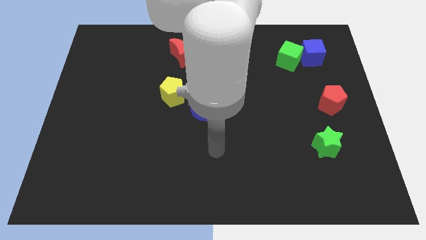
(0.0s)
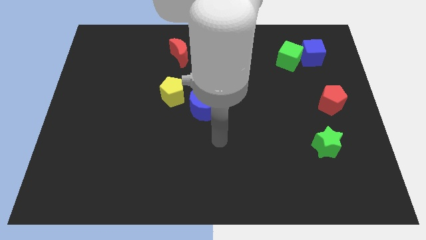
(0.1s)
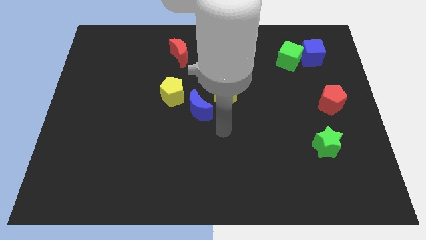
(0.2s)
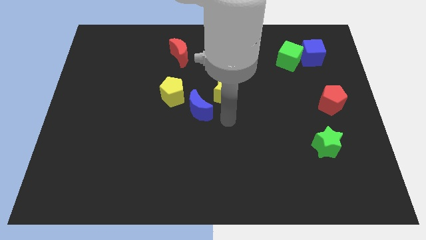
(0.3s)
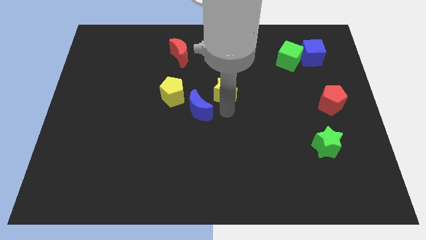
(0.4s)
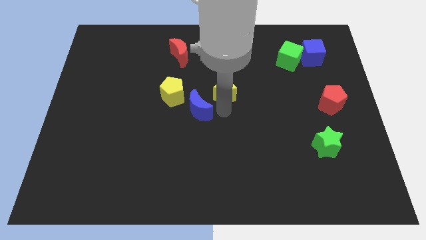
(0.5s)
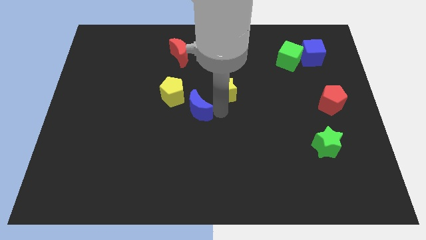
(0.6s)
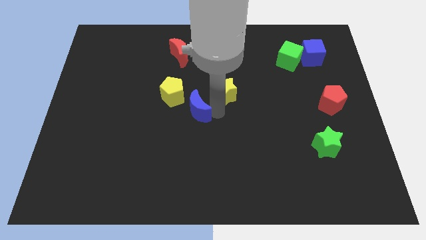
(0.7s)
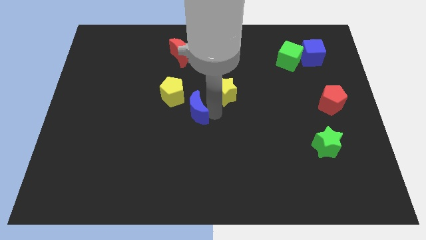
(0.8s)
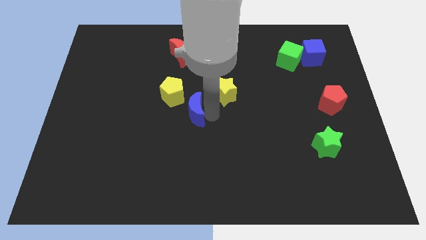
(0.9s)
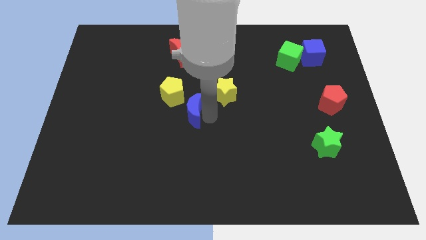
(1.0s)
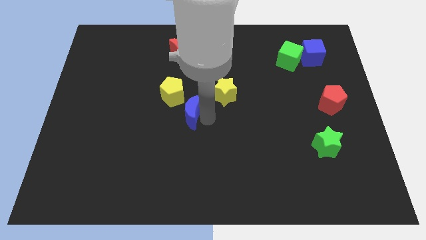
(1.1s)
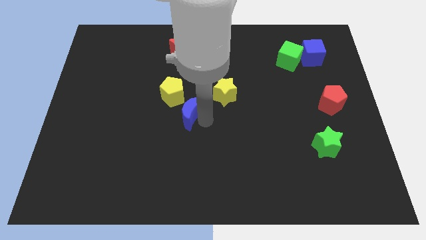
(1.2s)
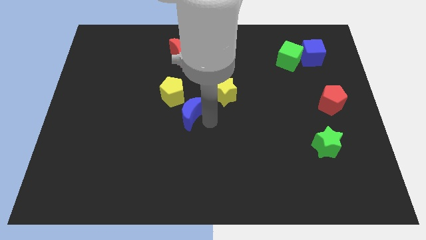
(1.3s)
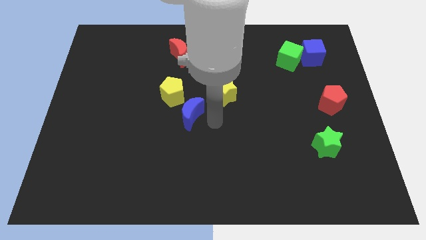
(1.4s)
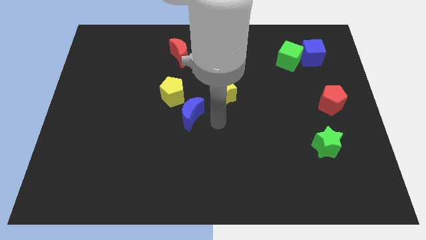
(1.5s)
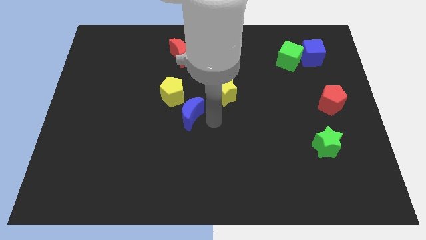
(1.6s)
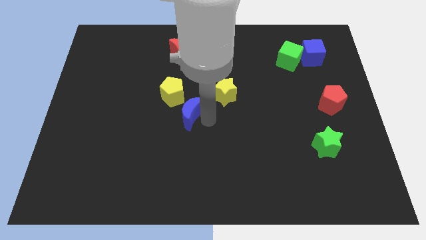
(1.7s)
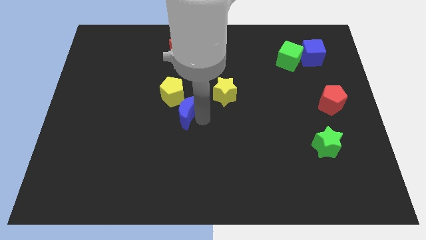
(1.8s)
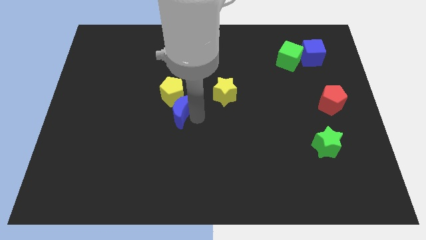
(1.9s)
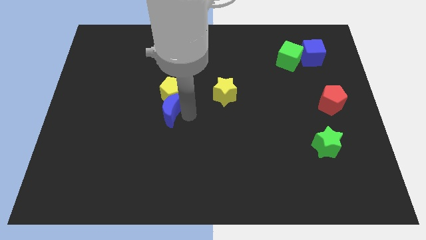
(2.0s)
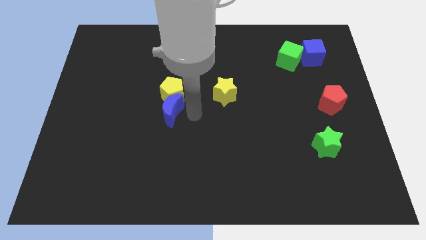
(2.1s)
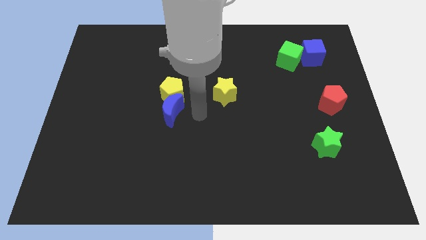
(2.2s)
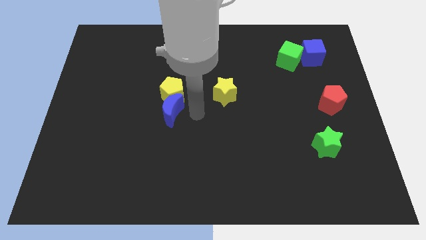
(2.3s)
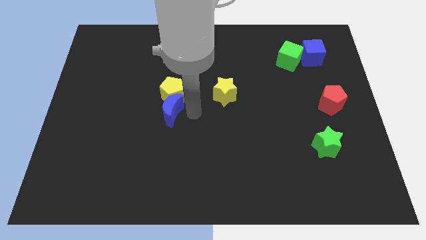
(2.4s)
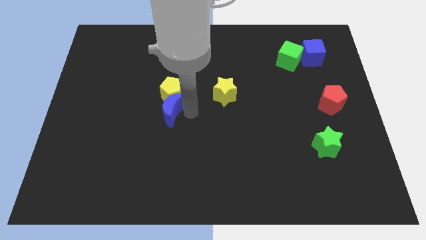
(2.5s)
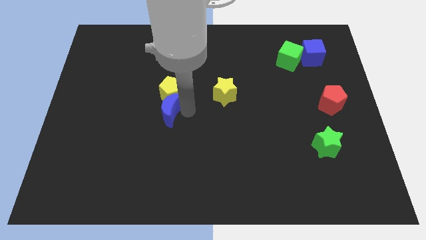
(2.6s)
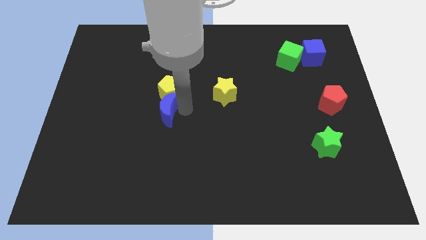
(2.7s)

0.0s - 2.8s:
slide the blue moon a bit left

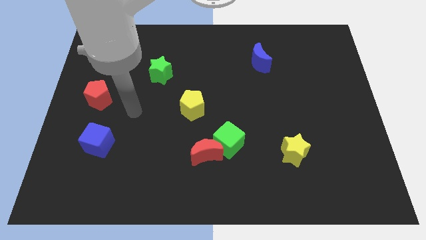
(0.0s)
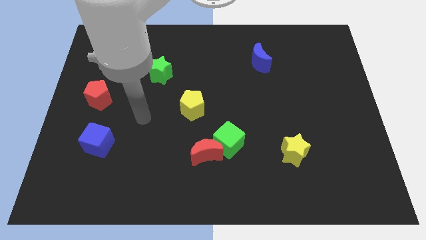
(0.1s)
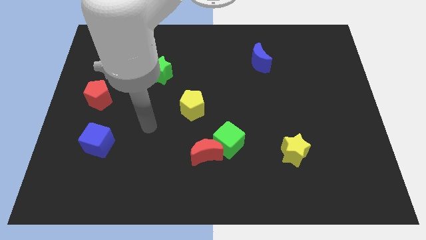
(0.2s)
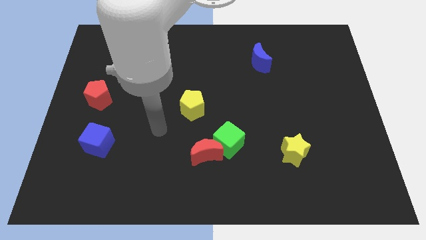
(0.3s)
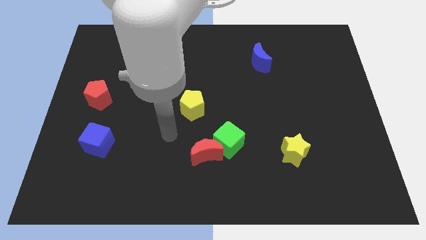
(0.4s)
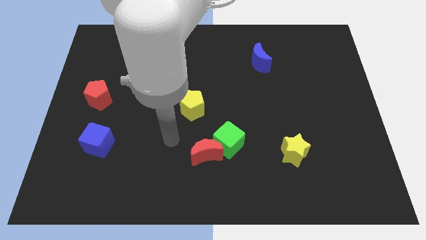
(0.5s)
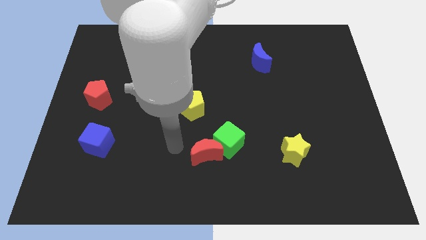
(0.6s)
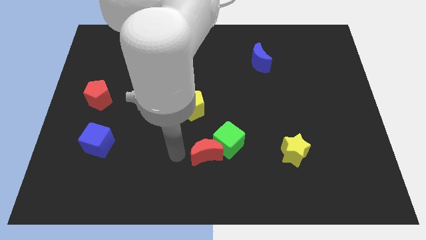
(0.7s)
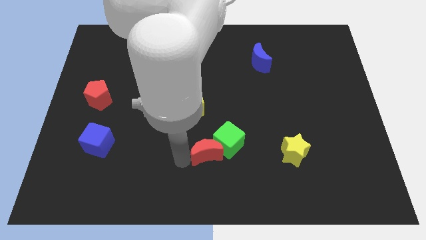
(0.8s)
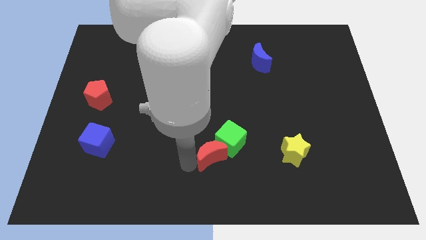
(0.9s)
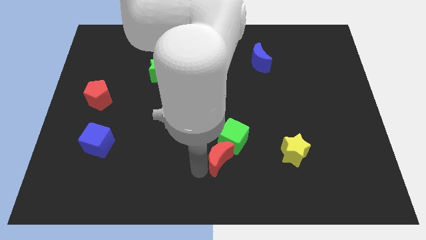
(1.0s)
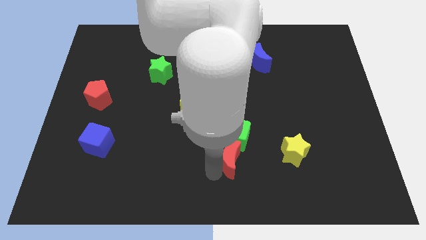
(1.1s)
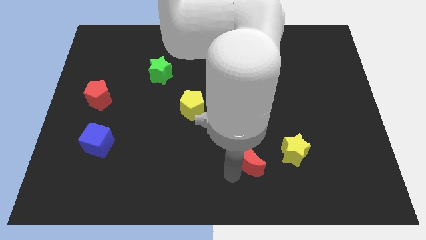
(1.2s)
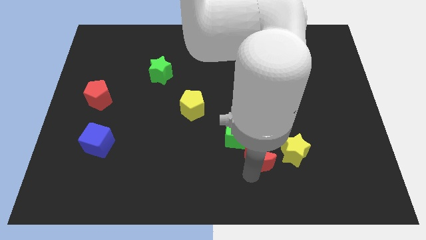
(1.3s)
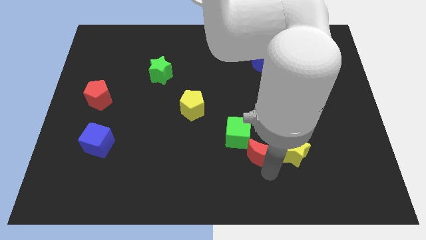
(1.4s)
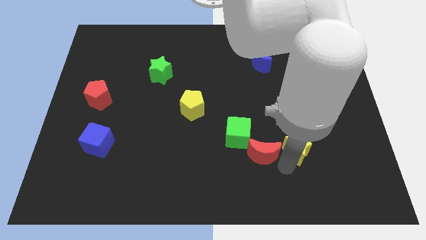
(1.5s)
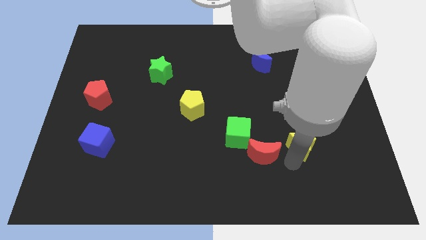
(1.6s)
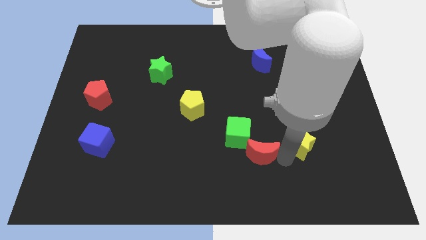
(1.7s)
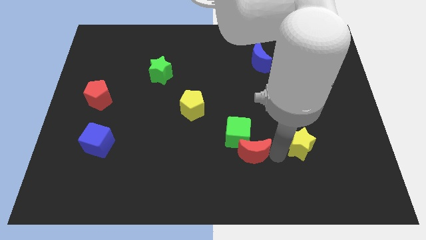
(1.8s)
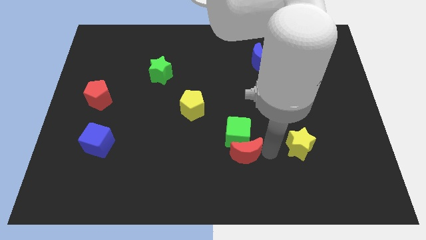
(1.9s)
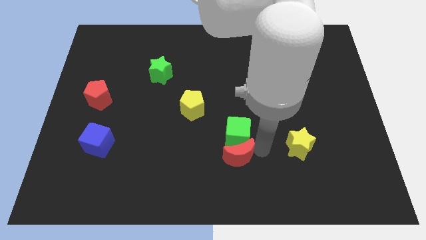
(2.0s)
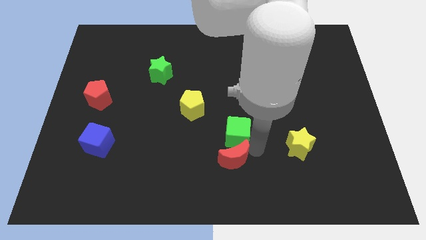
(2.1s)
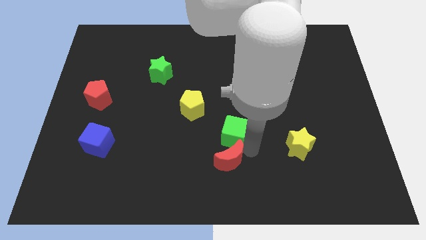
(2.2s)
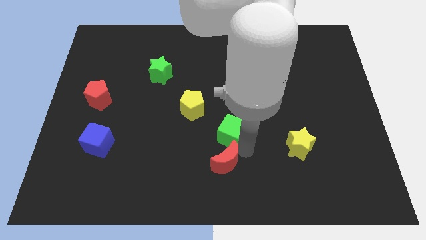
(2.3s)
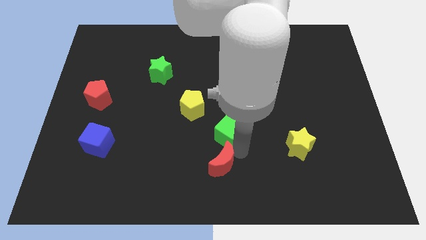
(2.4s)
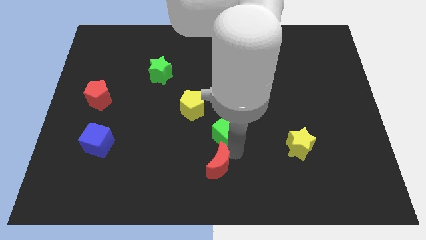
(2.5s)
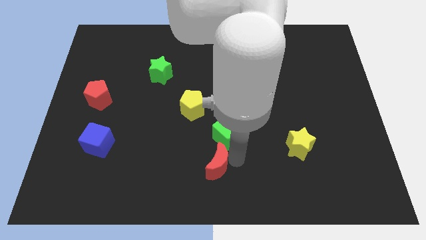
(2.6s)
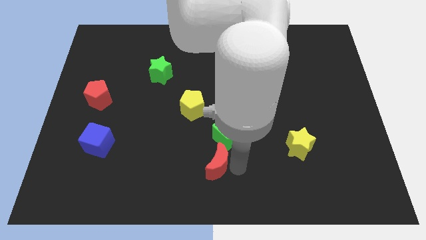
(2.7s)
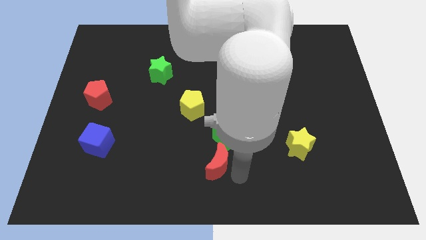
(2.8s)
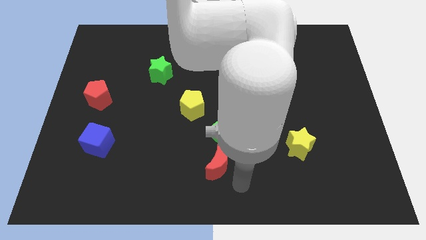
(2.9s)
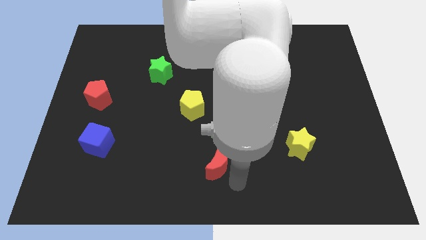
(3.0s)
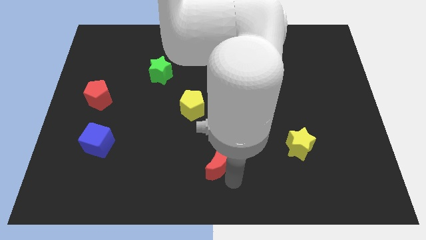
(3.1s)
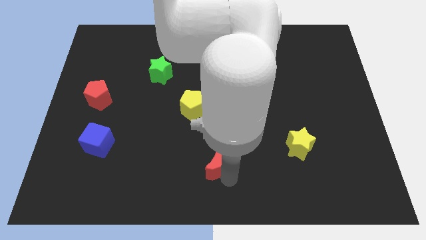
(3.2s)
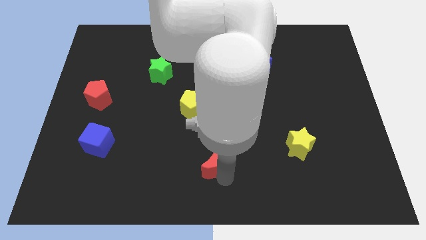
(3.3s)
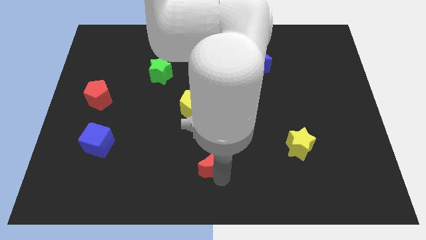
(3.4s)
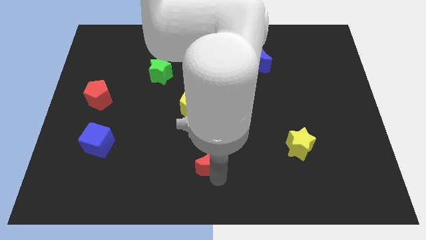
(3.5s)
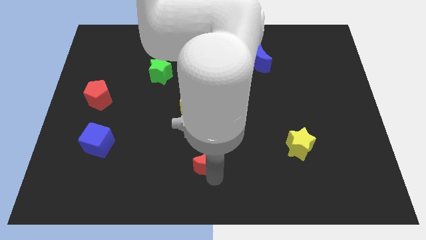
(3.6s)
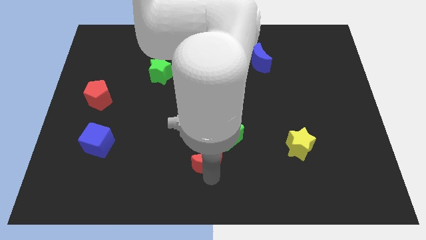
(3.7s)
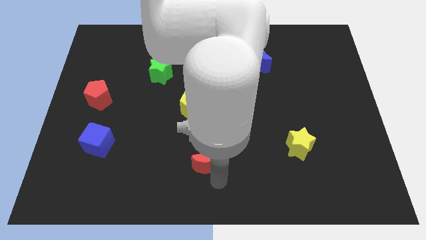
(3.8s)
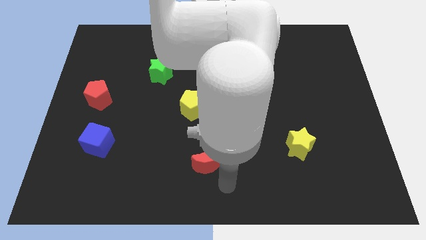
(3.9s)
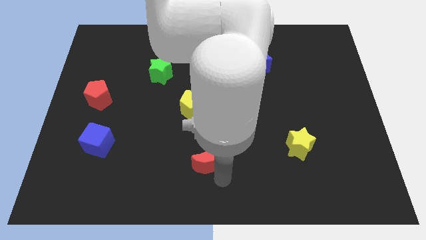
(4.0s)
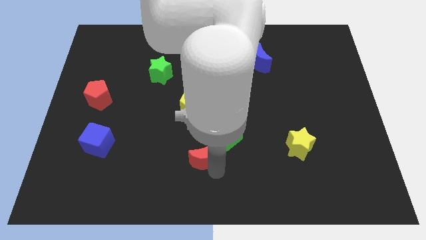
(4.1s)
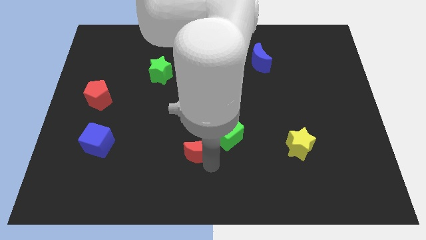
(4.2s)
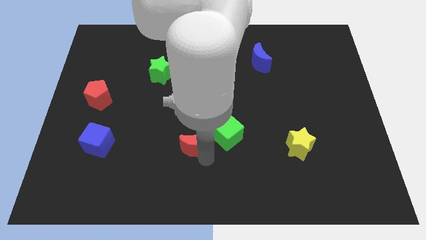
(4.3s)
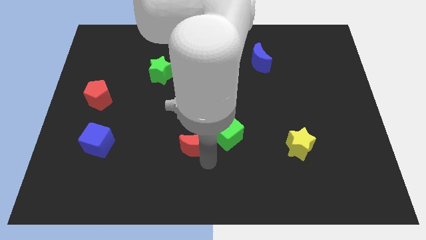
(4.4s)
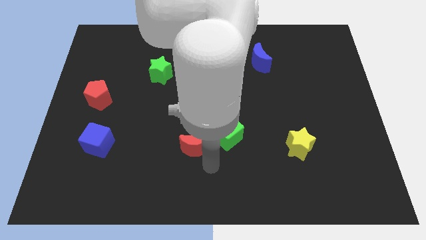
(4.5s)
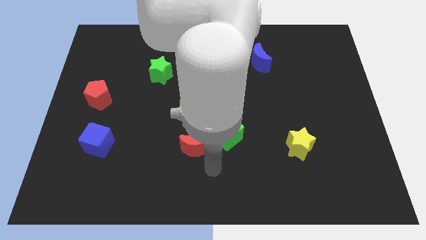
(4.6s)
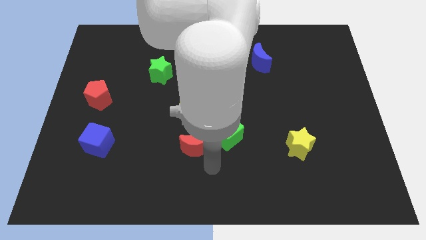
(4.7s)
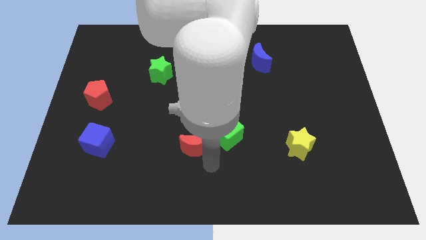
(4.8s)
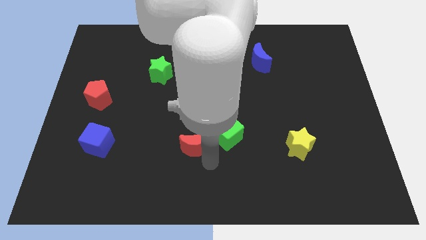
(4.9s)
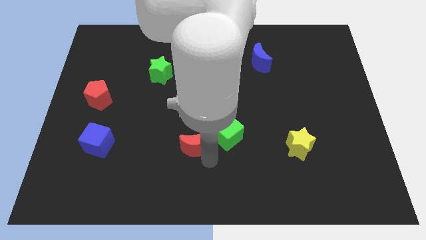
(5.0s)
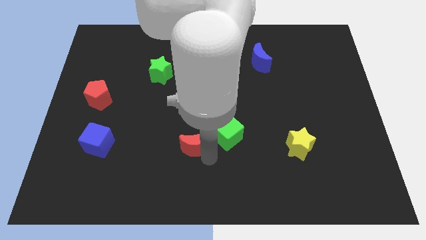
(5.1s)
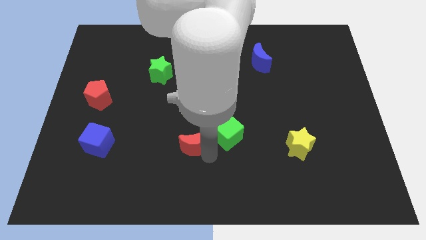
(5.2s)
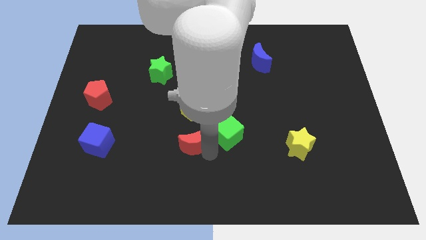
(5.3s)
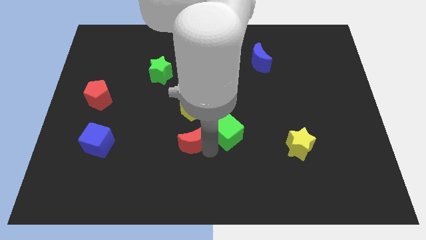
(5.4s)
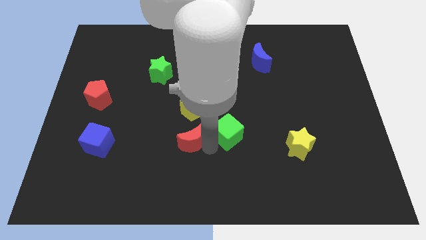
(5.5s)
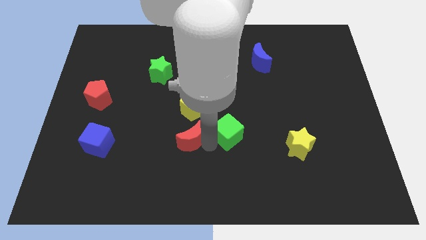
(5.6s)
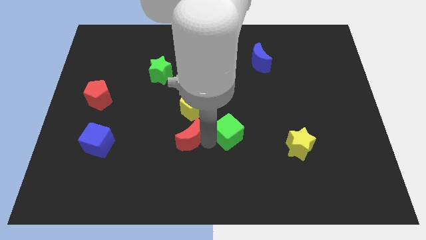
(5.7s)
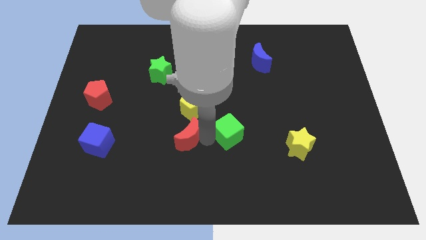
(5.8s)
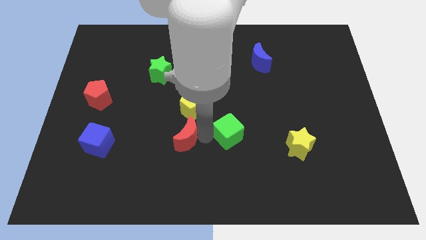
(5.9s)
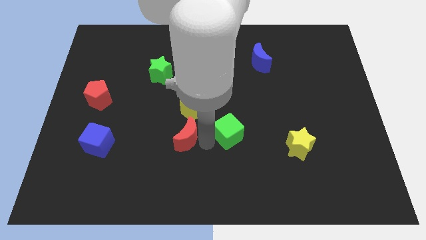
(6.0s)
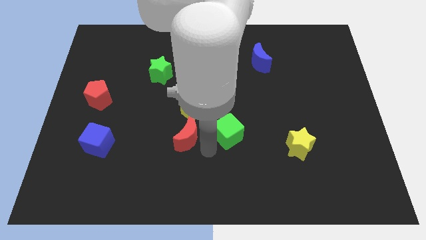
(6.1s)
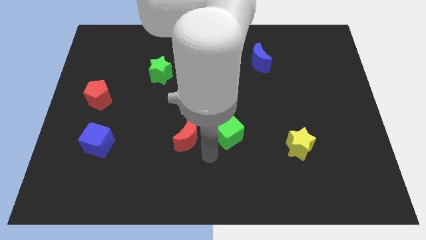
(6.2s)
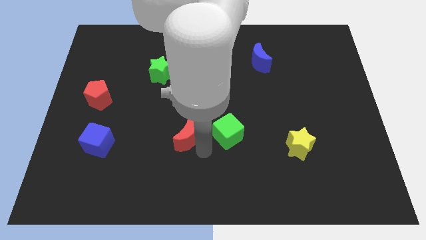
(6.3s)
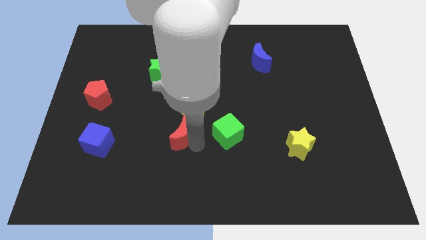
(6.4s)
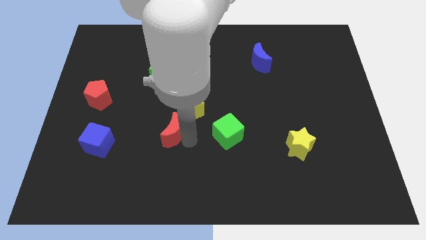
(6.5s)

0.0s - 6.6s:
move the red moon upwards and left diagonally somewhat
